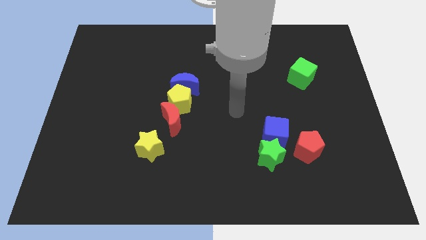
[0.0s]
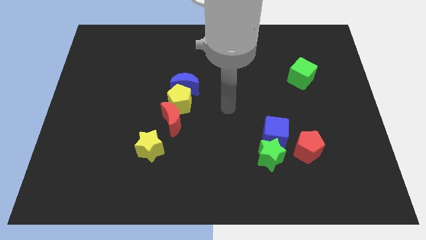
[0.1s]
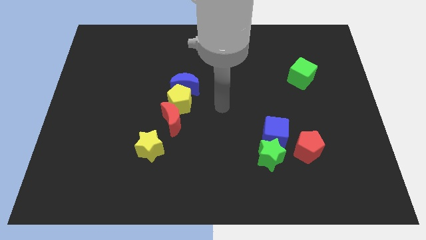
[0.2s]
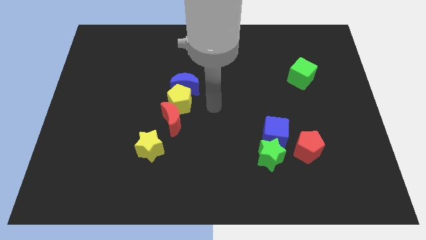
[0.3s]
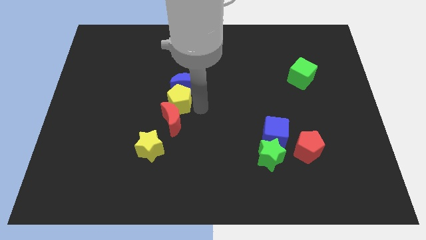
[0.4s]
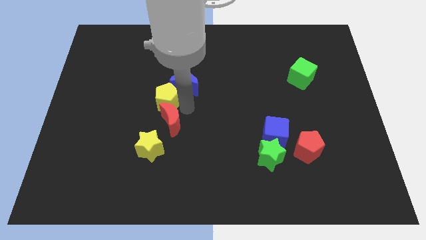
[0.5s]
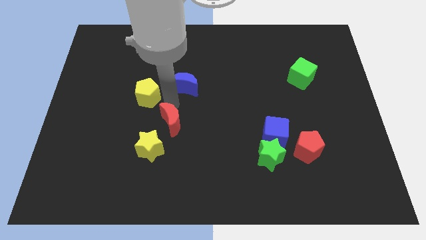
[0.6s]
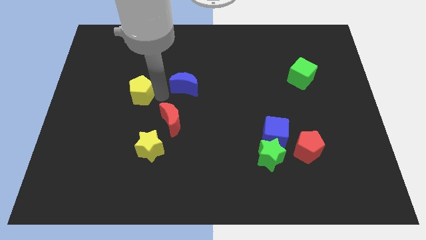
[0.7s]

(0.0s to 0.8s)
move the blue moon away from the yellow pentagon

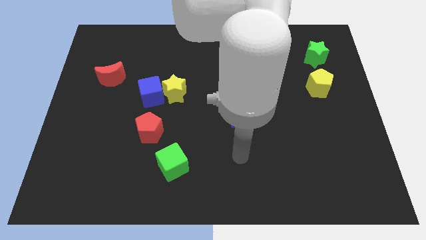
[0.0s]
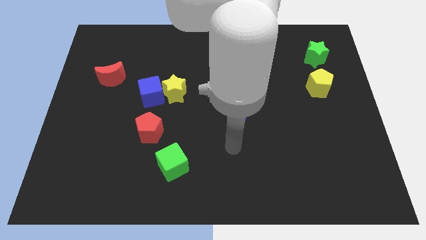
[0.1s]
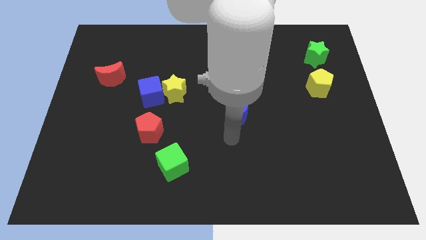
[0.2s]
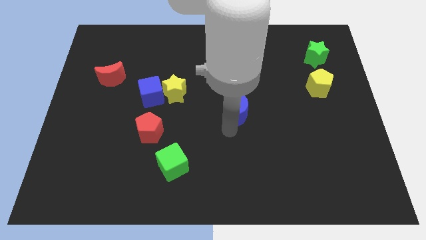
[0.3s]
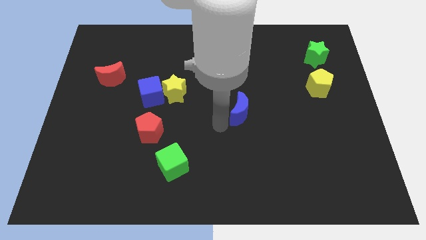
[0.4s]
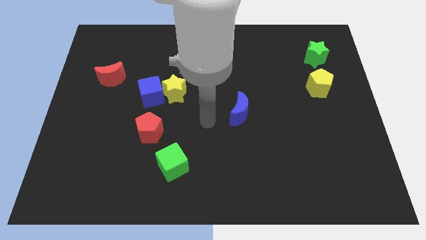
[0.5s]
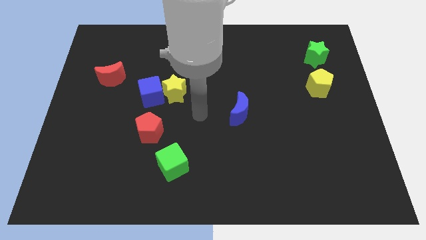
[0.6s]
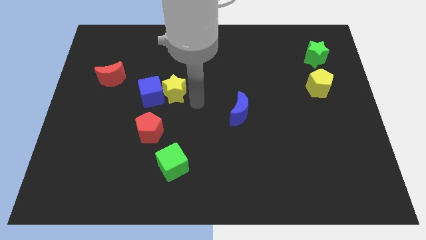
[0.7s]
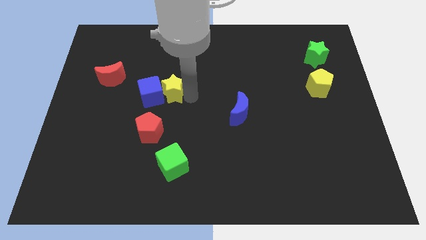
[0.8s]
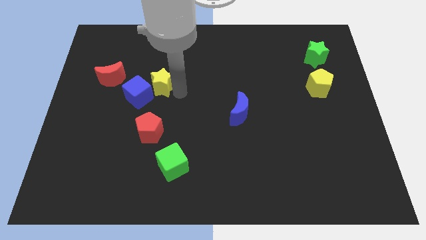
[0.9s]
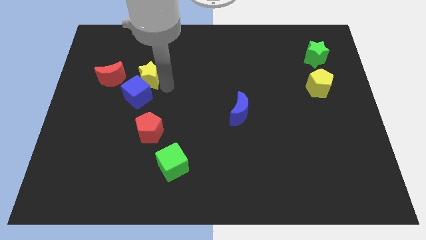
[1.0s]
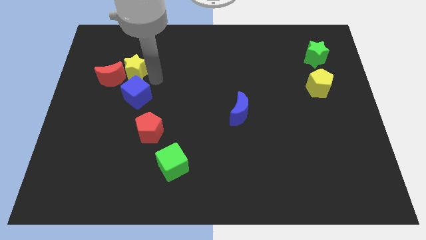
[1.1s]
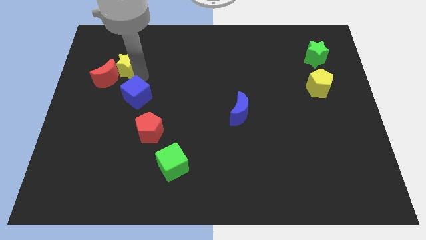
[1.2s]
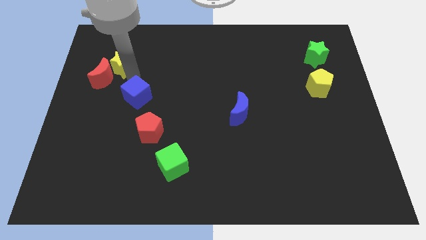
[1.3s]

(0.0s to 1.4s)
pull the blue cube apart from the yellow star

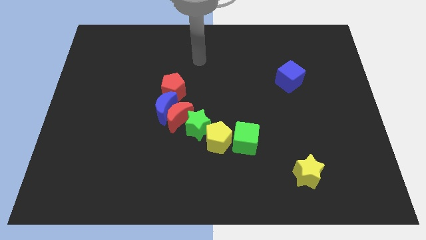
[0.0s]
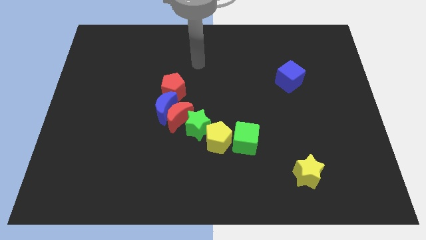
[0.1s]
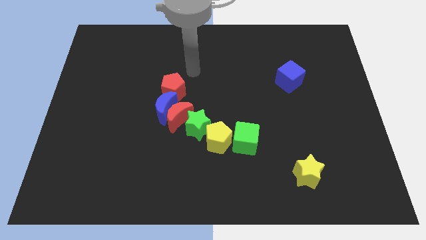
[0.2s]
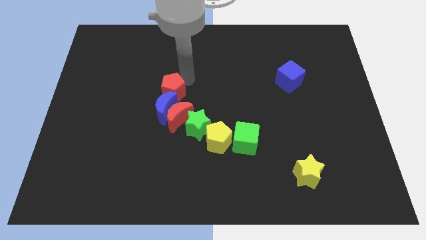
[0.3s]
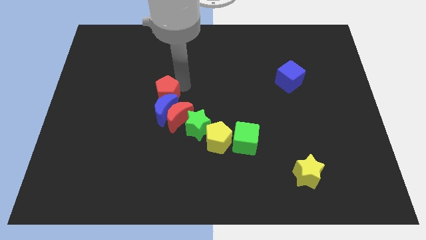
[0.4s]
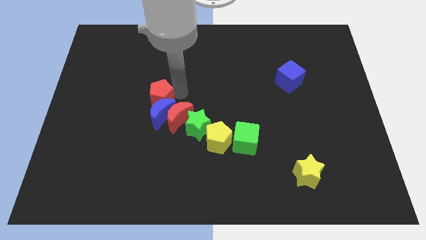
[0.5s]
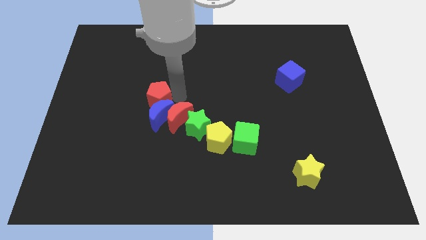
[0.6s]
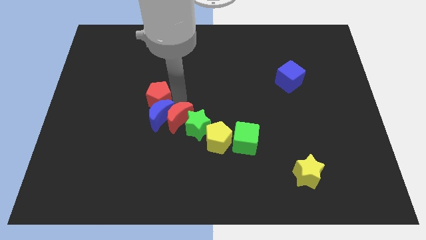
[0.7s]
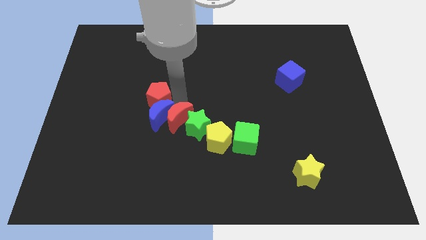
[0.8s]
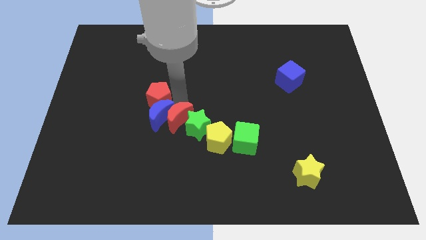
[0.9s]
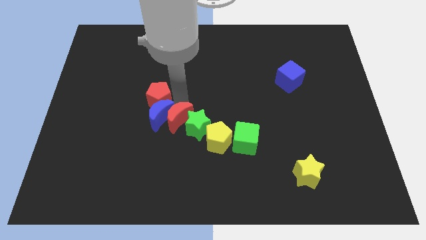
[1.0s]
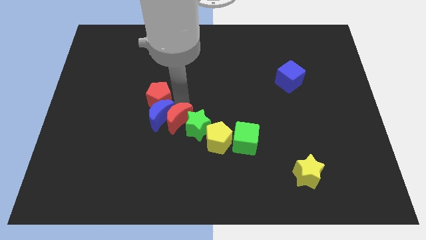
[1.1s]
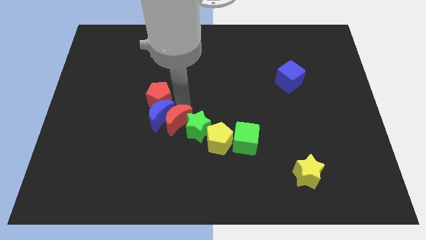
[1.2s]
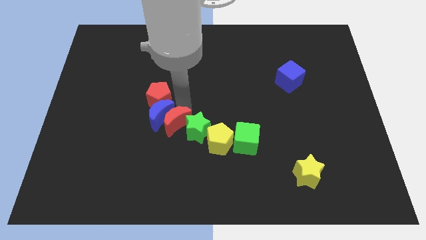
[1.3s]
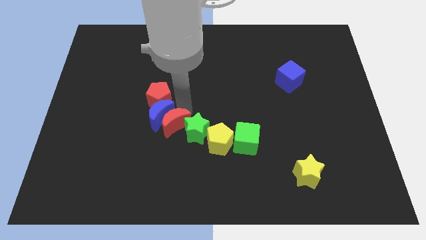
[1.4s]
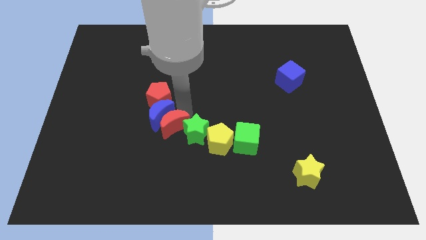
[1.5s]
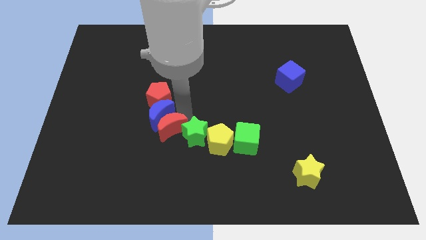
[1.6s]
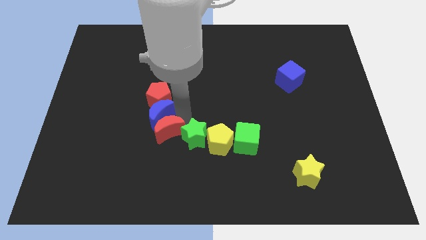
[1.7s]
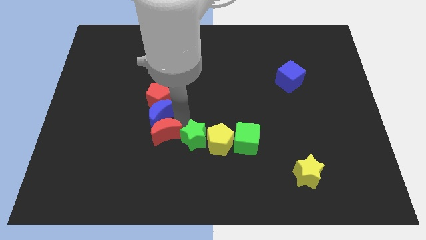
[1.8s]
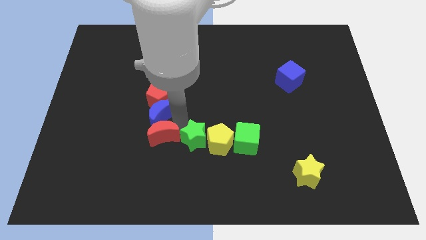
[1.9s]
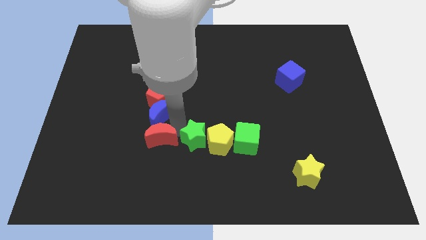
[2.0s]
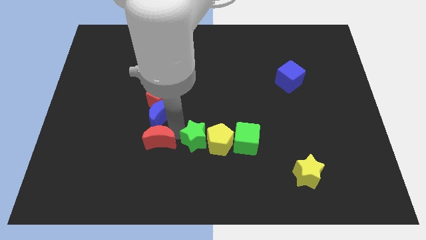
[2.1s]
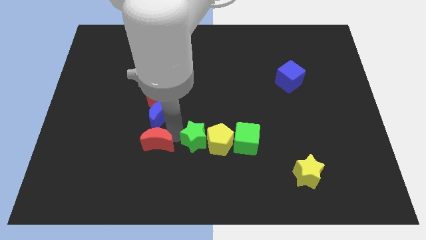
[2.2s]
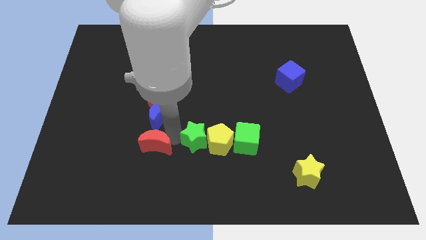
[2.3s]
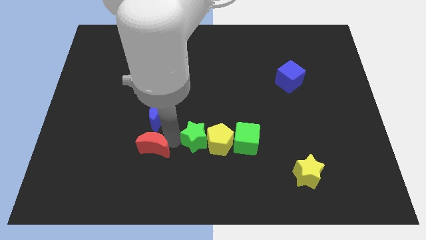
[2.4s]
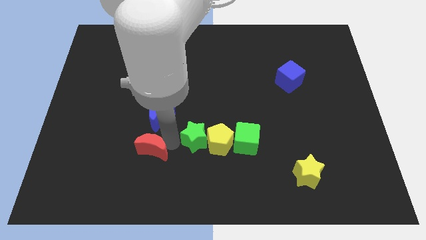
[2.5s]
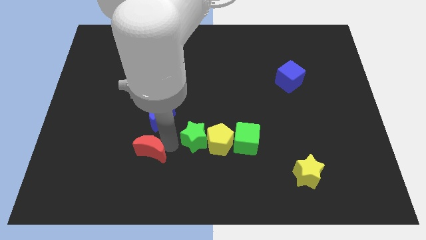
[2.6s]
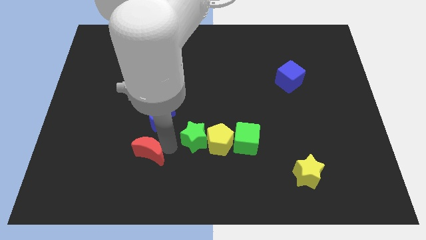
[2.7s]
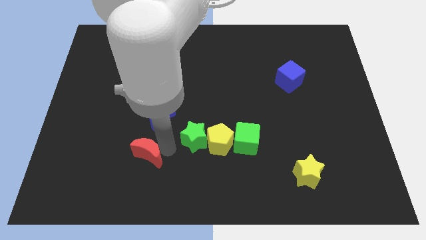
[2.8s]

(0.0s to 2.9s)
move the red moon away from the clump

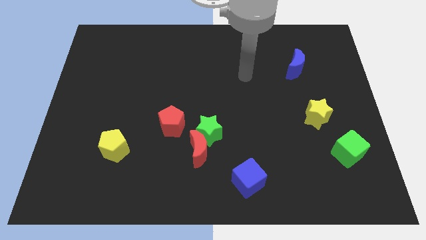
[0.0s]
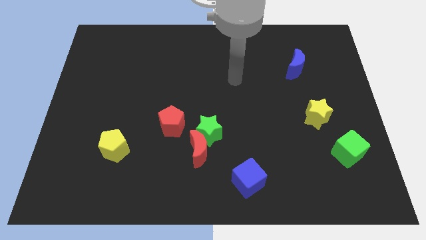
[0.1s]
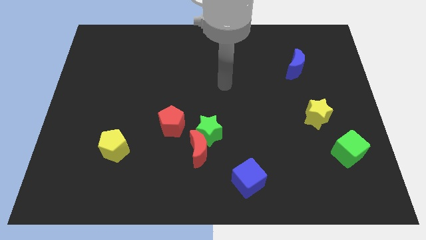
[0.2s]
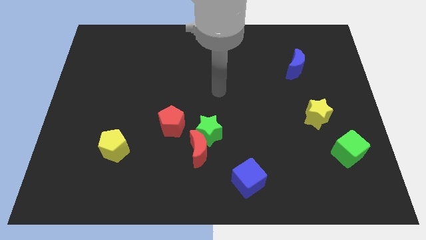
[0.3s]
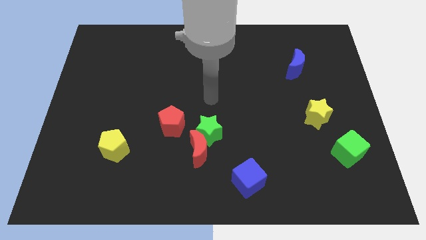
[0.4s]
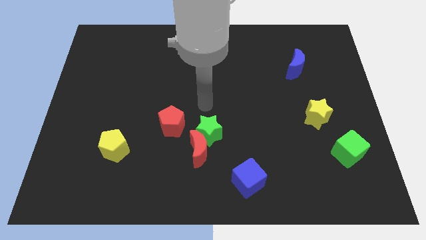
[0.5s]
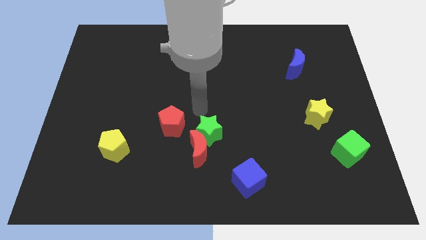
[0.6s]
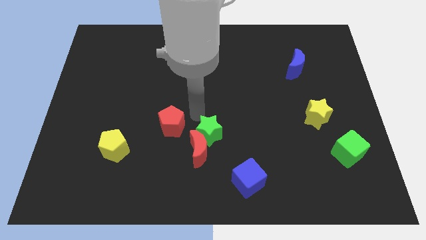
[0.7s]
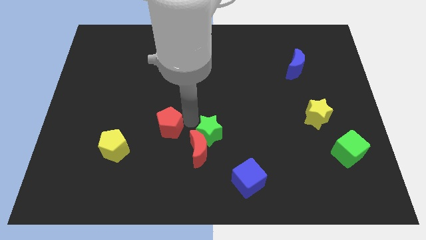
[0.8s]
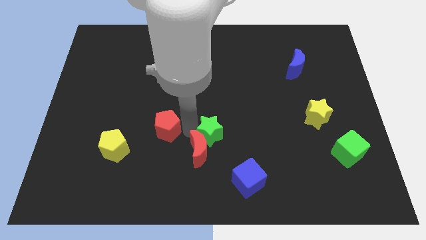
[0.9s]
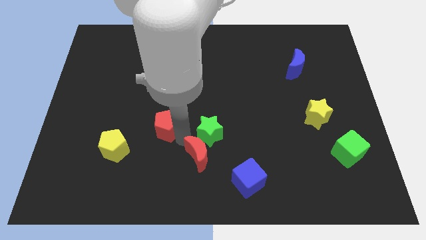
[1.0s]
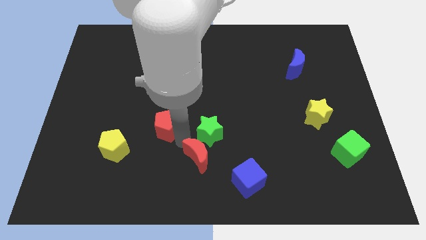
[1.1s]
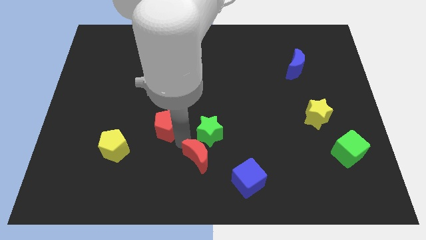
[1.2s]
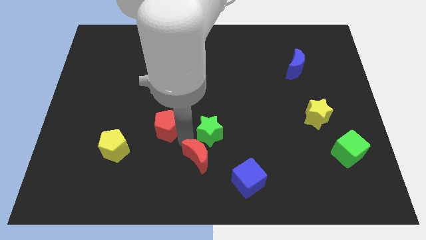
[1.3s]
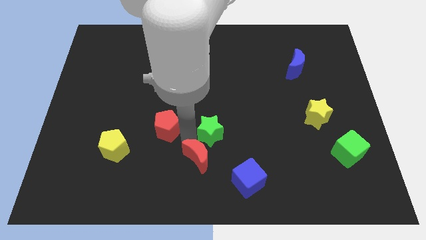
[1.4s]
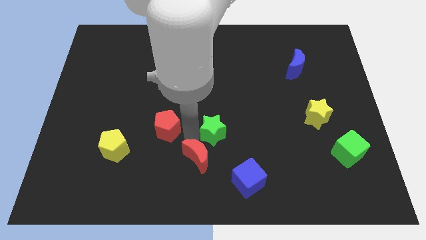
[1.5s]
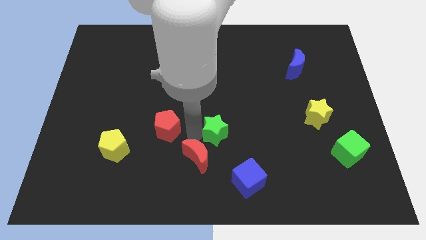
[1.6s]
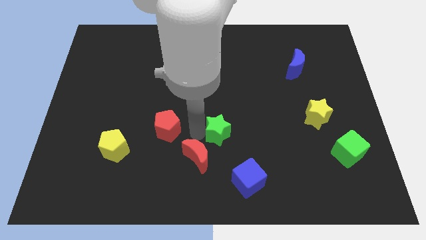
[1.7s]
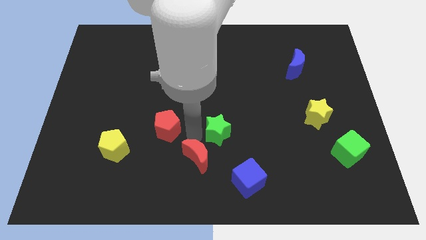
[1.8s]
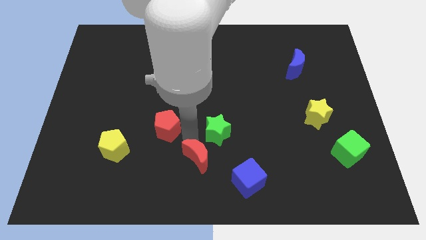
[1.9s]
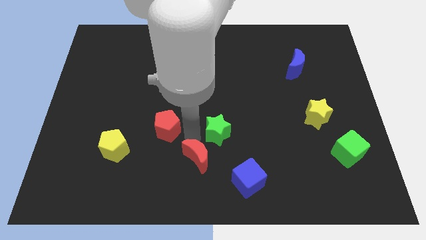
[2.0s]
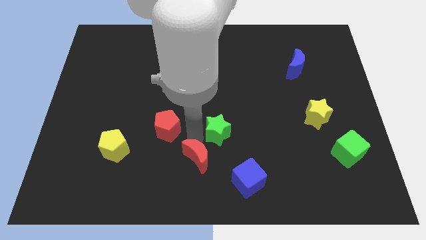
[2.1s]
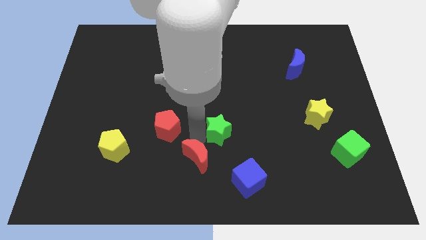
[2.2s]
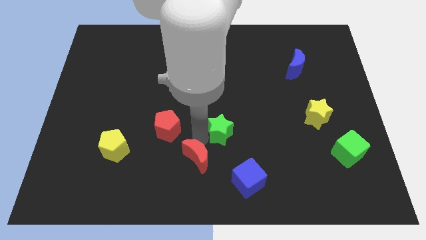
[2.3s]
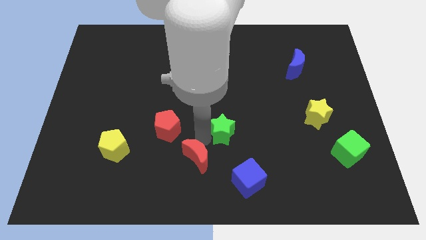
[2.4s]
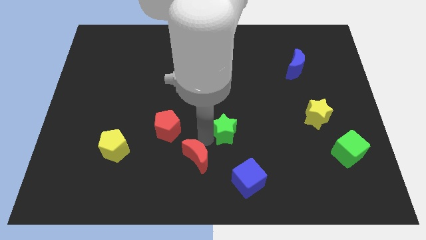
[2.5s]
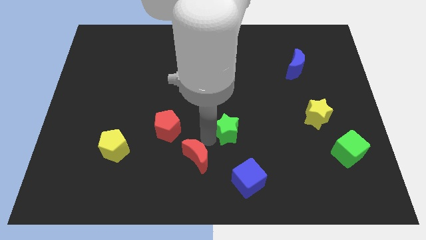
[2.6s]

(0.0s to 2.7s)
separate the green star from the red moon and red pentagon

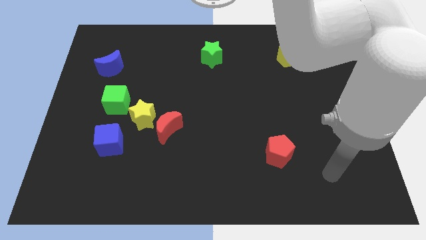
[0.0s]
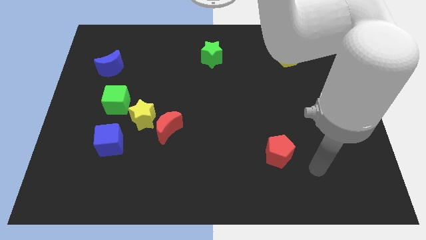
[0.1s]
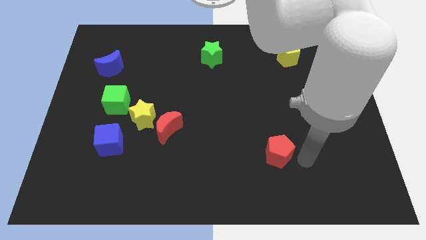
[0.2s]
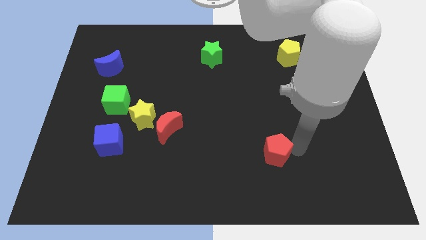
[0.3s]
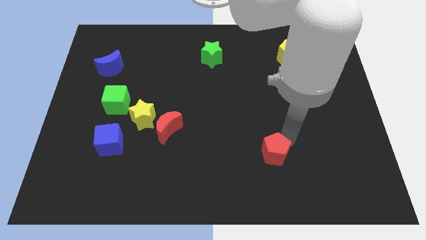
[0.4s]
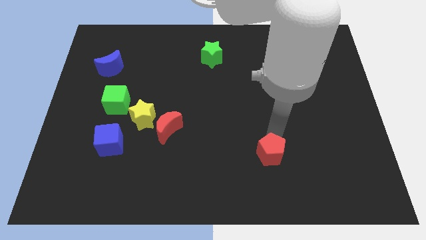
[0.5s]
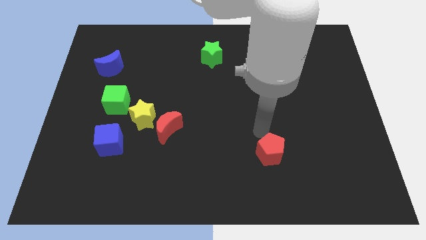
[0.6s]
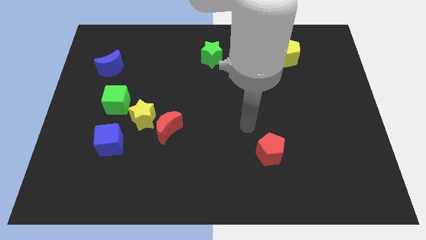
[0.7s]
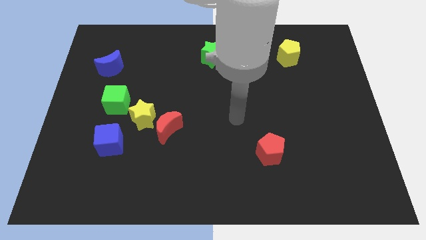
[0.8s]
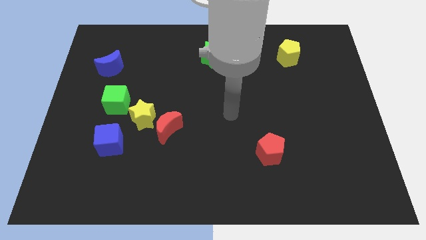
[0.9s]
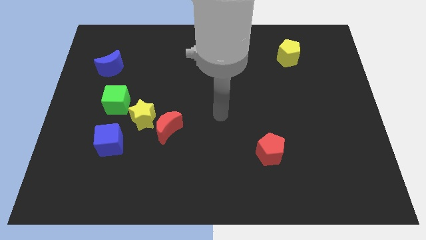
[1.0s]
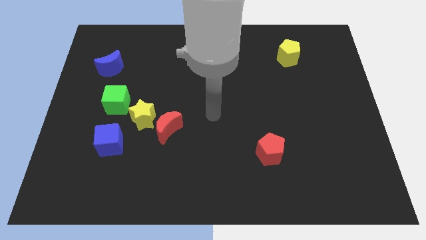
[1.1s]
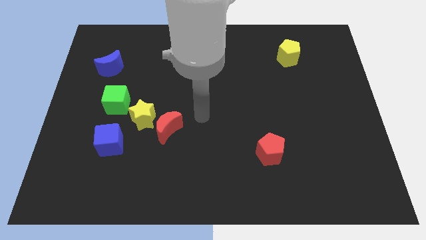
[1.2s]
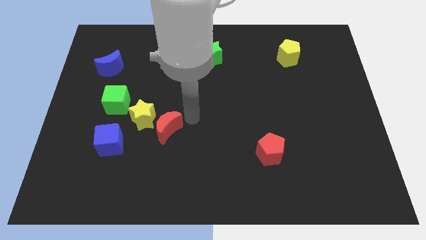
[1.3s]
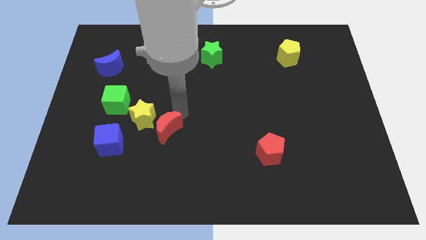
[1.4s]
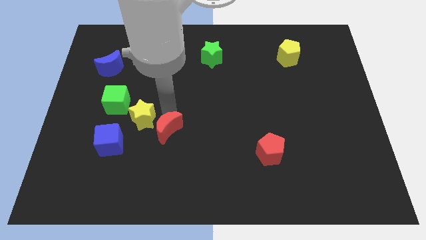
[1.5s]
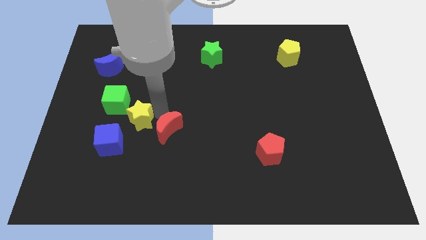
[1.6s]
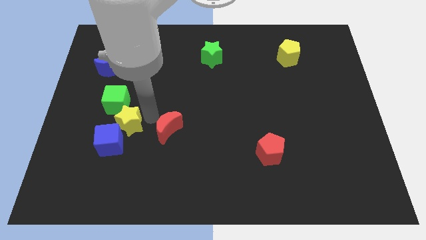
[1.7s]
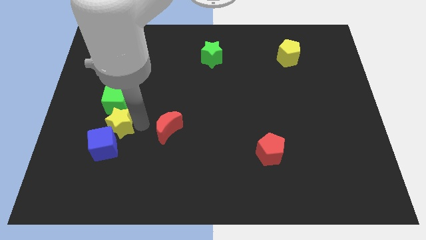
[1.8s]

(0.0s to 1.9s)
separate the red moon from the yellow star
